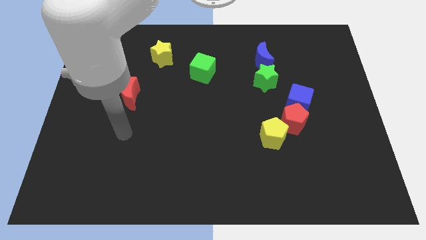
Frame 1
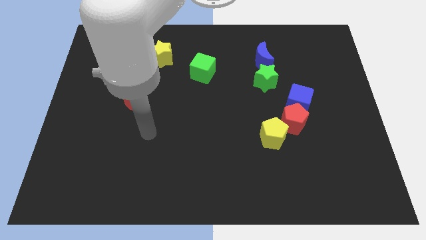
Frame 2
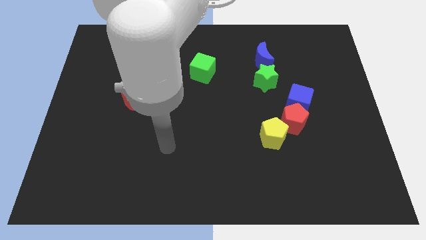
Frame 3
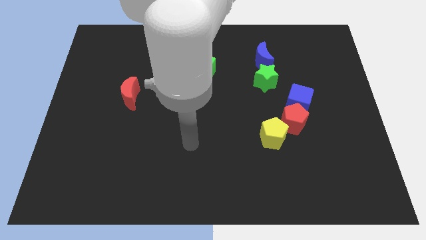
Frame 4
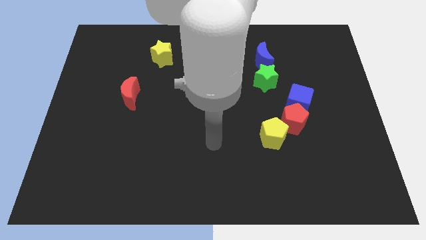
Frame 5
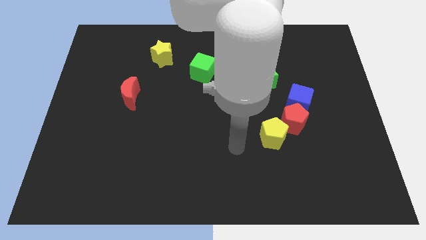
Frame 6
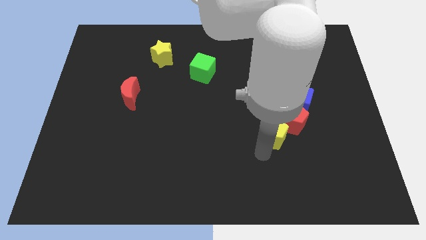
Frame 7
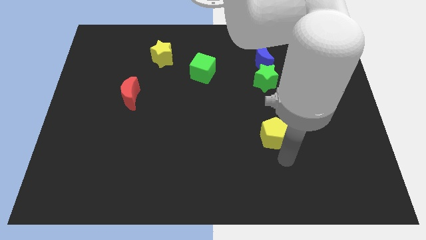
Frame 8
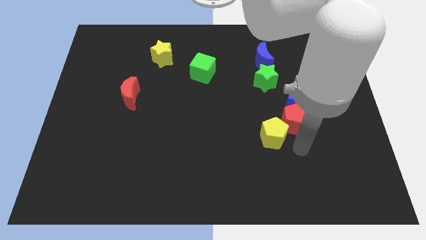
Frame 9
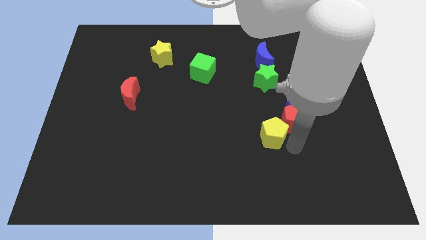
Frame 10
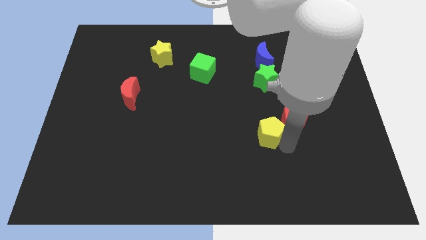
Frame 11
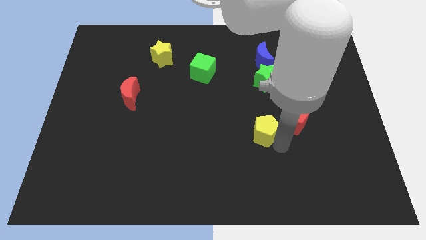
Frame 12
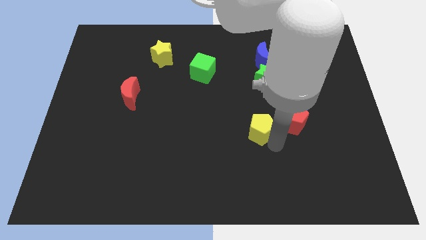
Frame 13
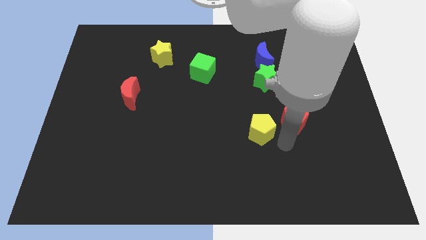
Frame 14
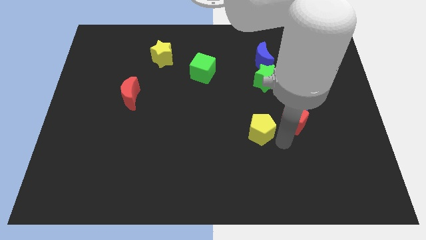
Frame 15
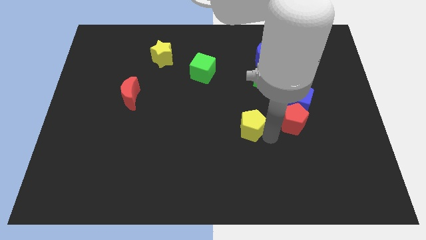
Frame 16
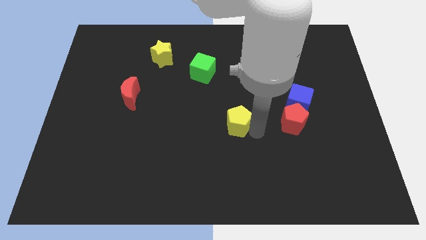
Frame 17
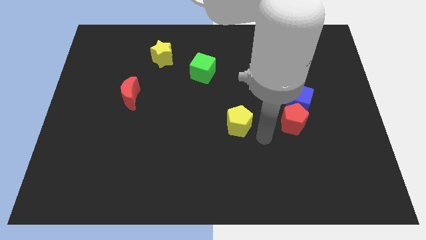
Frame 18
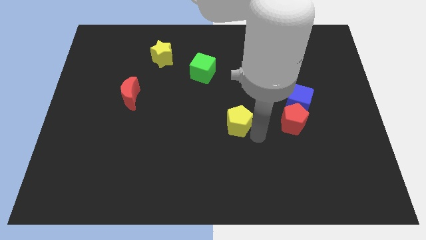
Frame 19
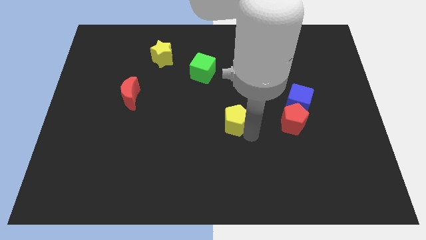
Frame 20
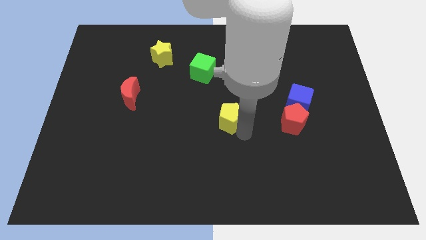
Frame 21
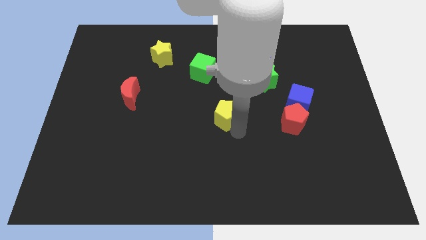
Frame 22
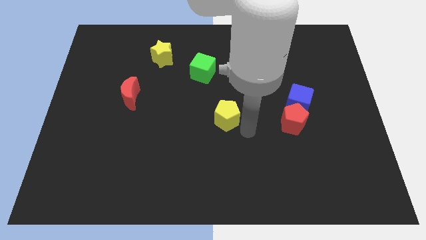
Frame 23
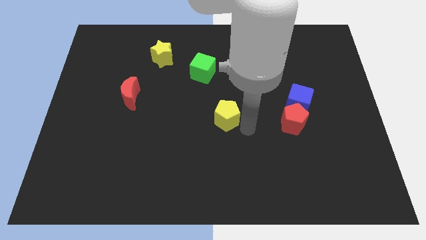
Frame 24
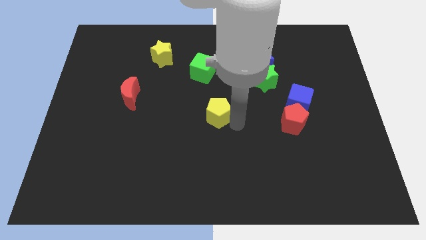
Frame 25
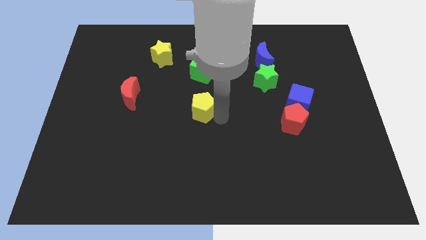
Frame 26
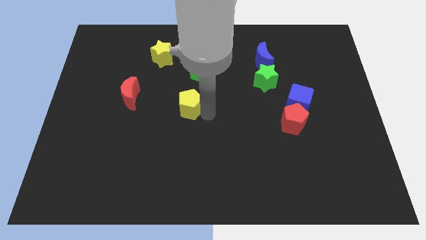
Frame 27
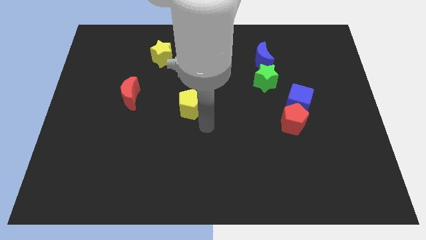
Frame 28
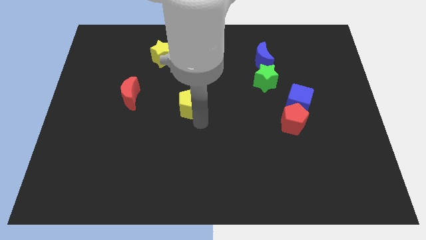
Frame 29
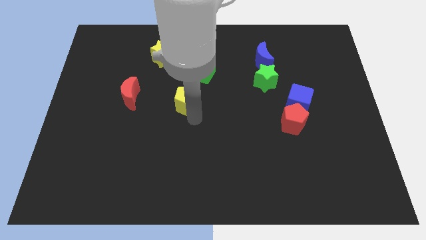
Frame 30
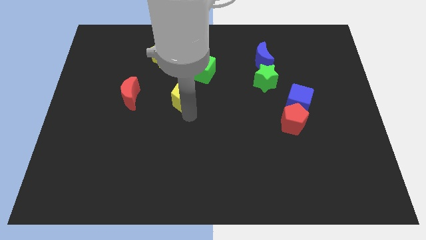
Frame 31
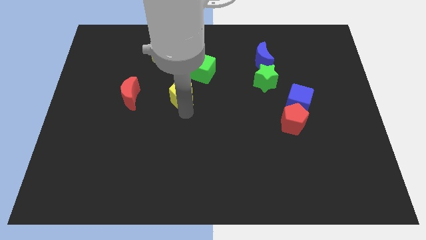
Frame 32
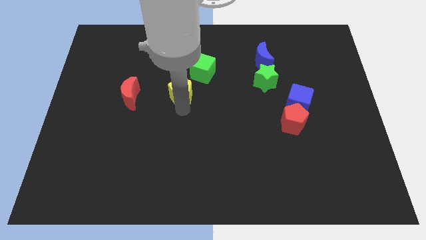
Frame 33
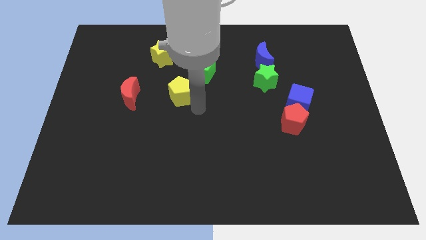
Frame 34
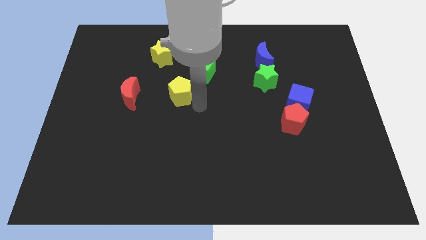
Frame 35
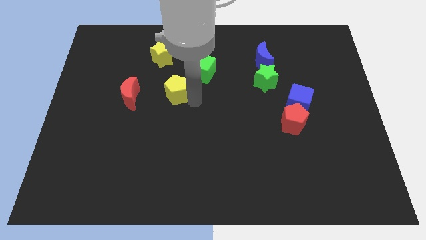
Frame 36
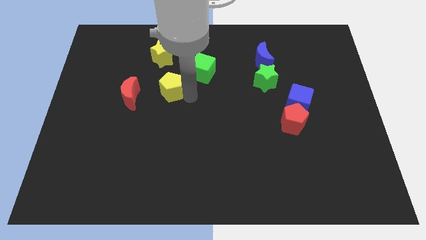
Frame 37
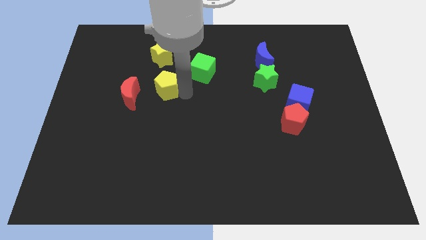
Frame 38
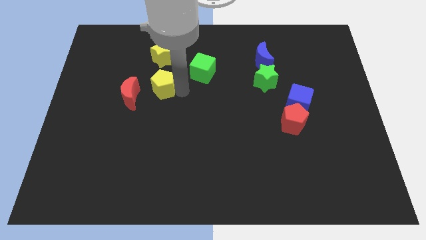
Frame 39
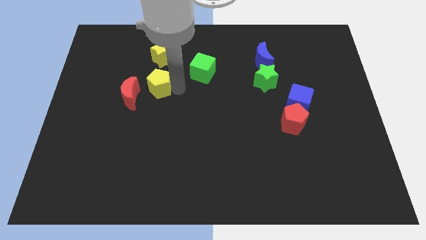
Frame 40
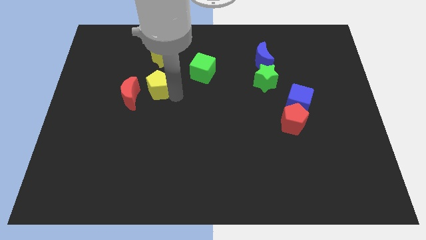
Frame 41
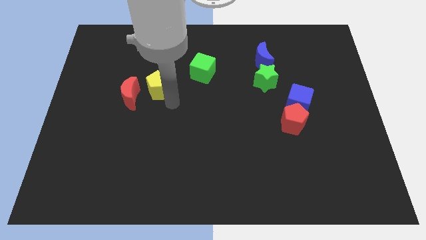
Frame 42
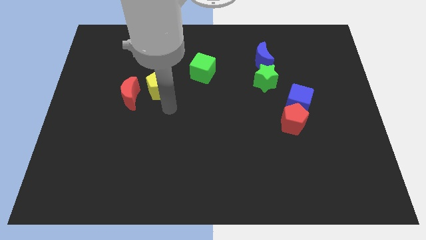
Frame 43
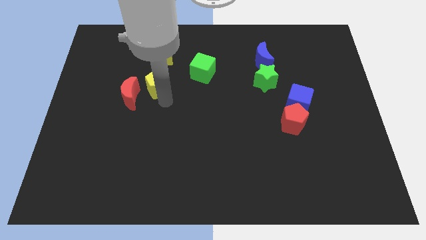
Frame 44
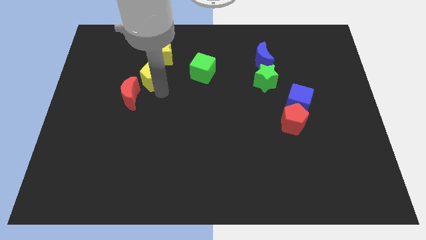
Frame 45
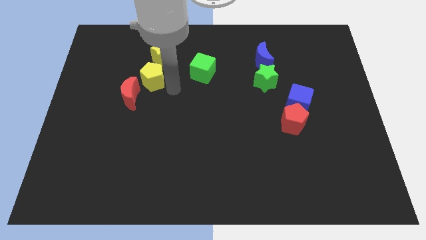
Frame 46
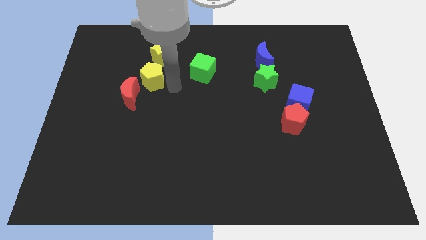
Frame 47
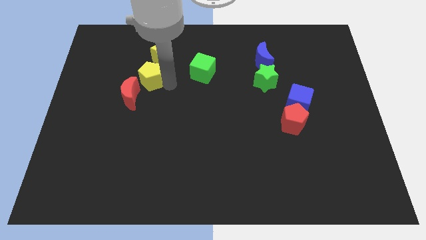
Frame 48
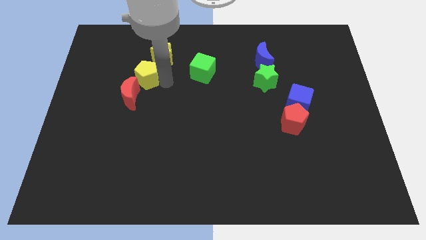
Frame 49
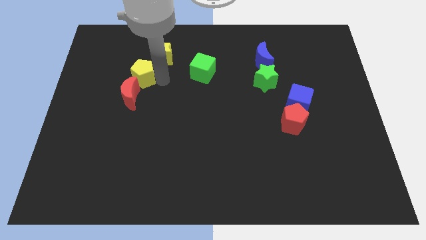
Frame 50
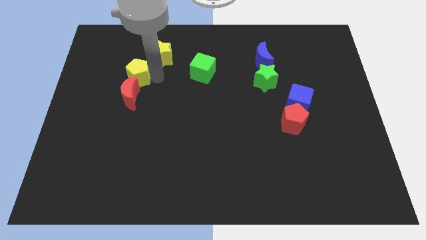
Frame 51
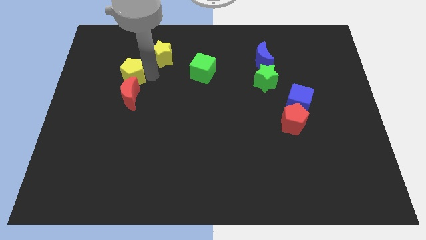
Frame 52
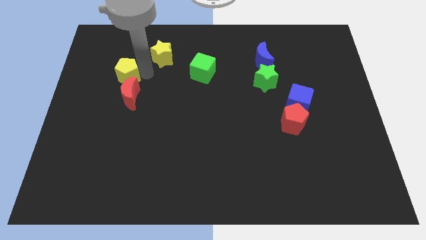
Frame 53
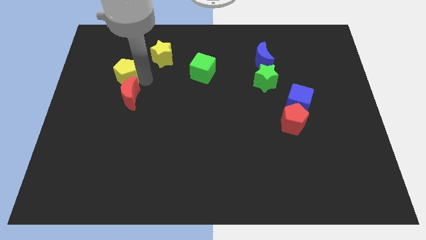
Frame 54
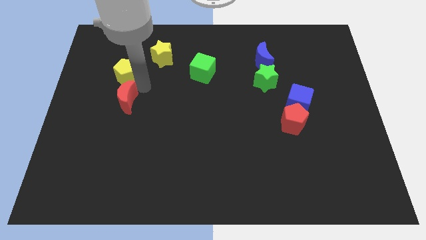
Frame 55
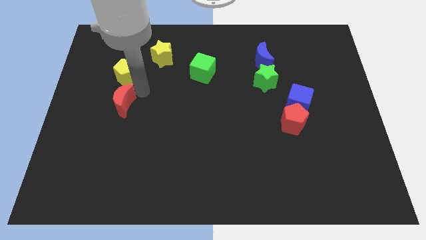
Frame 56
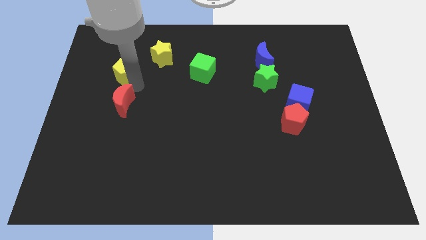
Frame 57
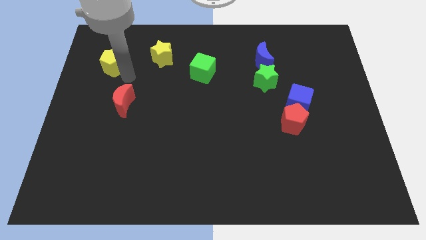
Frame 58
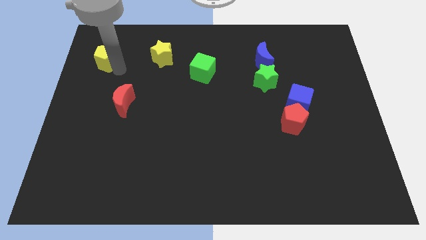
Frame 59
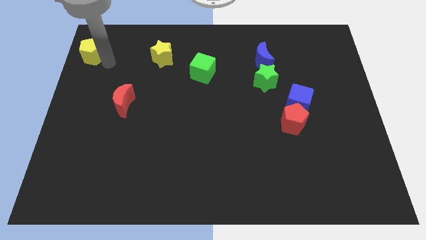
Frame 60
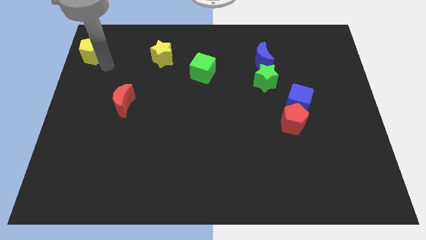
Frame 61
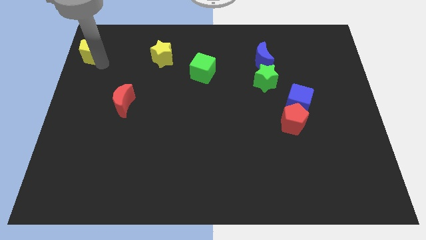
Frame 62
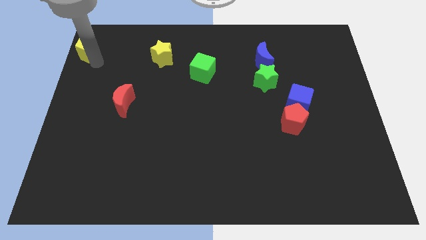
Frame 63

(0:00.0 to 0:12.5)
put the yellow pentagon to the top left corner

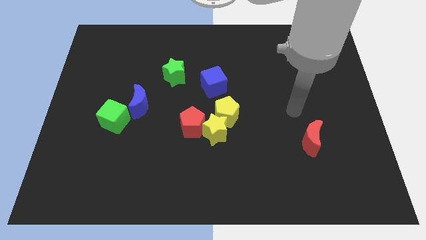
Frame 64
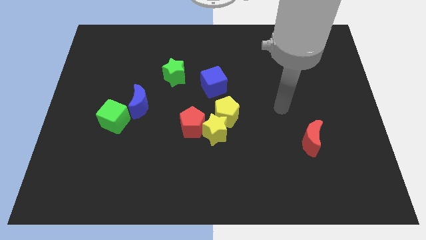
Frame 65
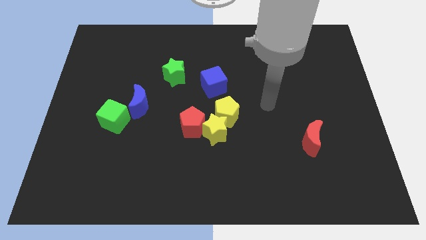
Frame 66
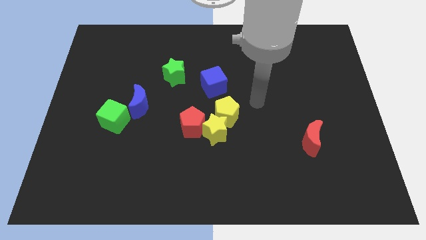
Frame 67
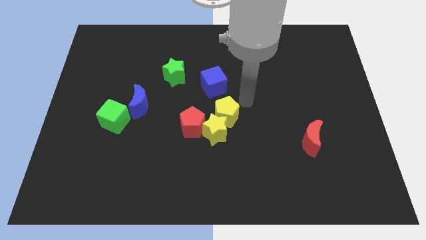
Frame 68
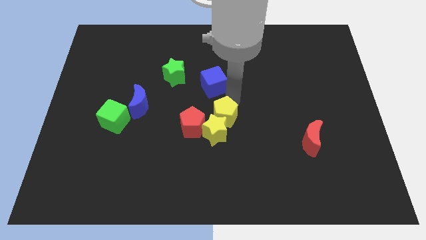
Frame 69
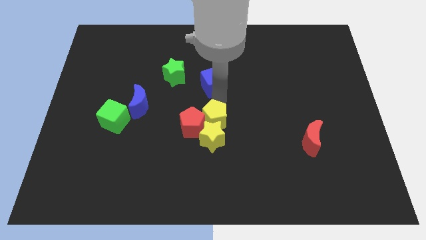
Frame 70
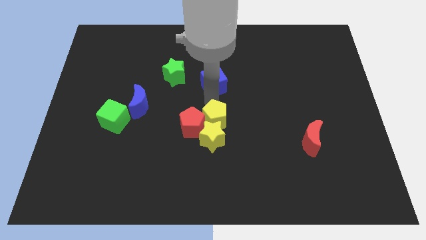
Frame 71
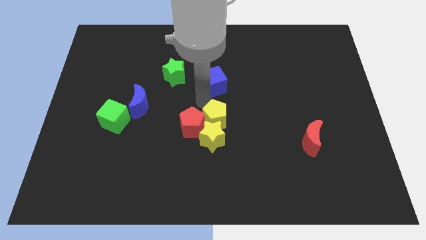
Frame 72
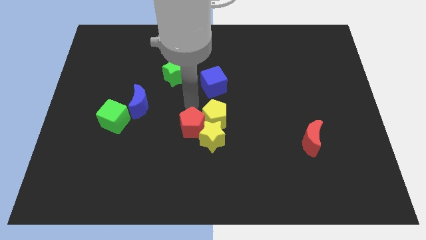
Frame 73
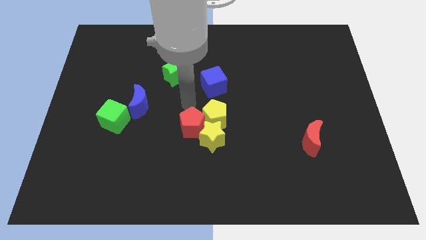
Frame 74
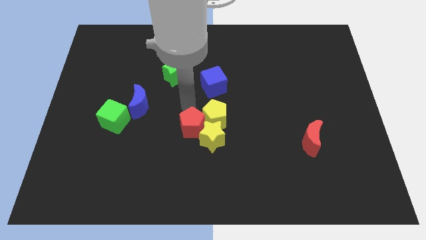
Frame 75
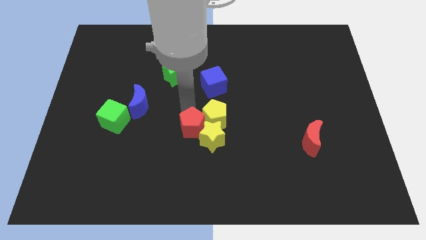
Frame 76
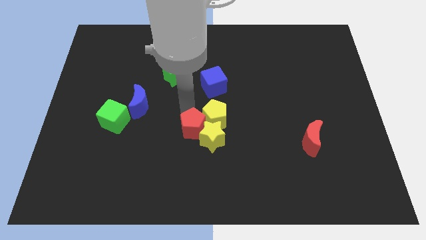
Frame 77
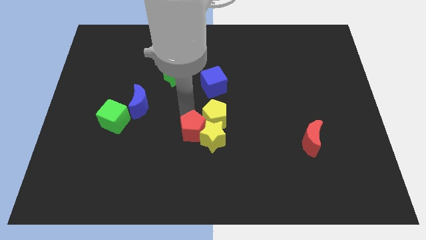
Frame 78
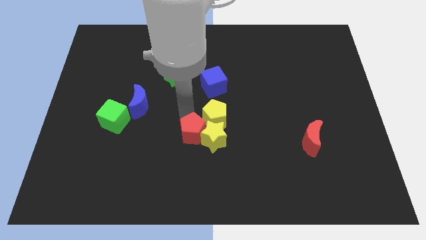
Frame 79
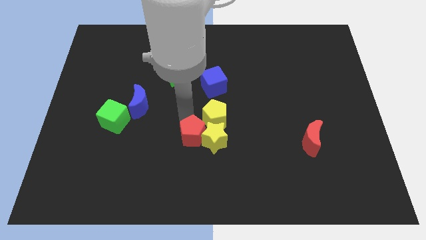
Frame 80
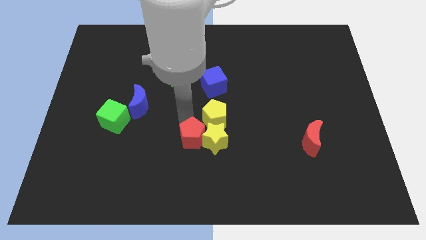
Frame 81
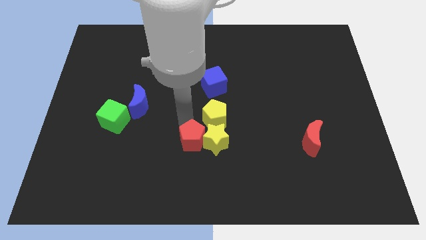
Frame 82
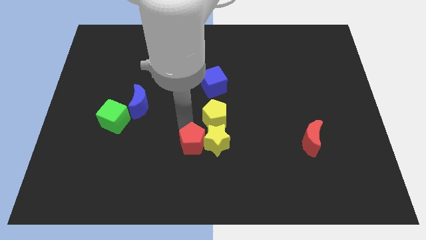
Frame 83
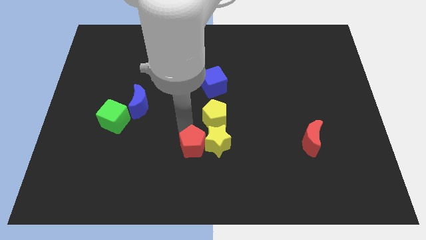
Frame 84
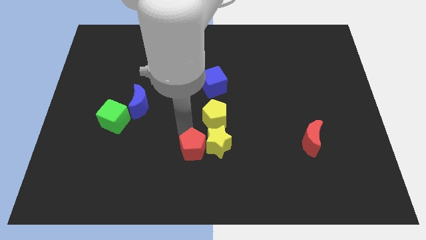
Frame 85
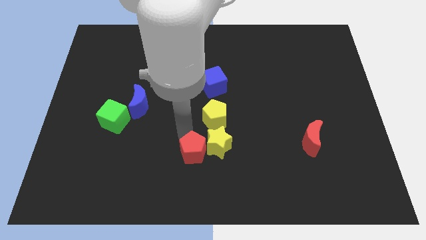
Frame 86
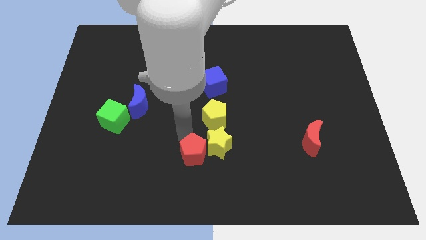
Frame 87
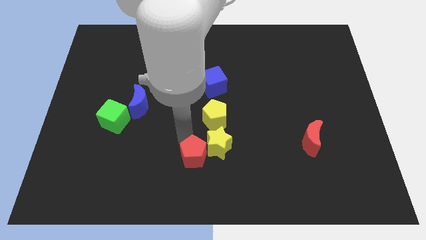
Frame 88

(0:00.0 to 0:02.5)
move the red pentagon to the bottom
